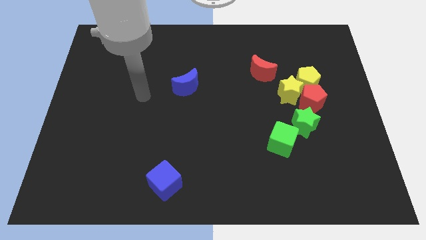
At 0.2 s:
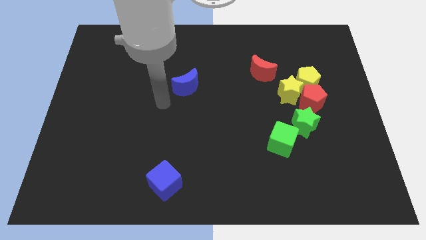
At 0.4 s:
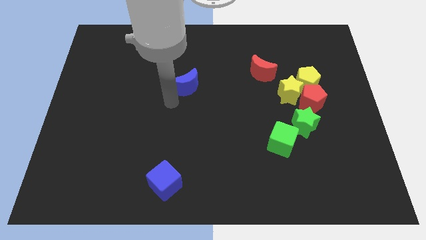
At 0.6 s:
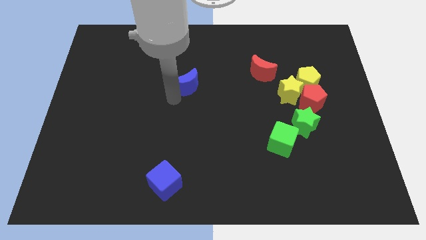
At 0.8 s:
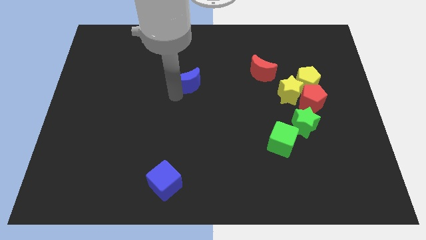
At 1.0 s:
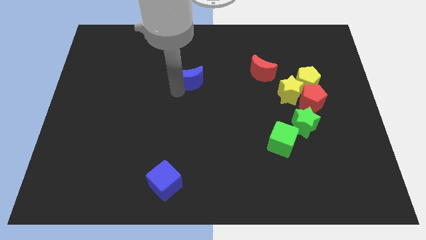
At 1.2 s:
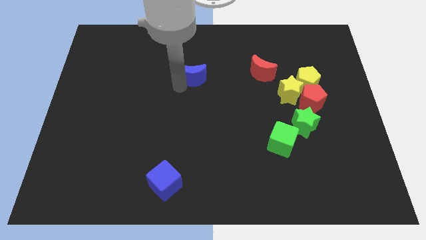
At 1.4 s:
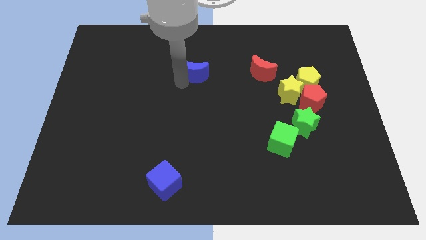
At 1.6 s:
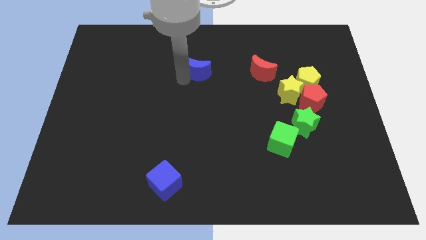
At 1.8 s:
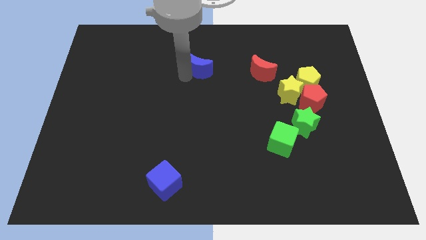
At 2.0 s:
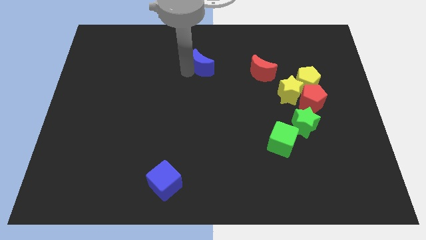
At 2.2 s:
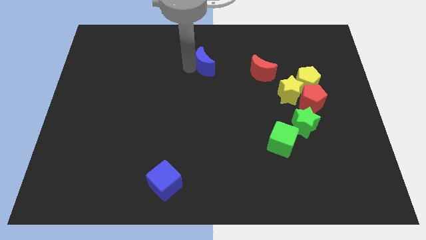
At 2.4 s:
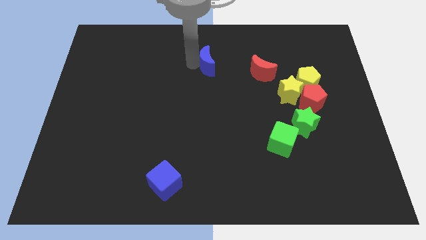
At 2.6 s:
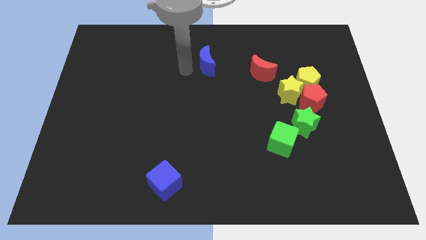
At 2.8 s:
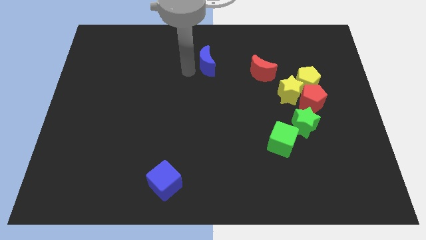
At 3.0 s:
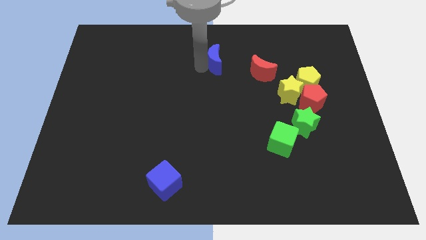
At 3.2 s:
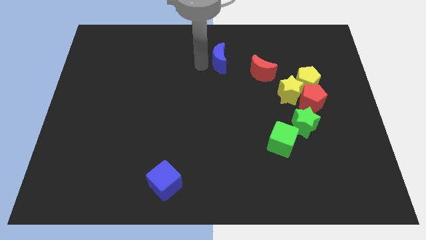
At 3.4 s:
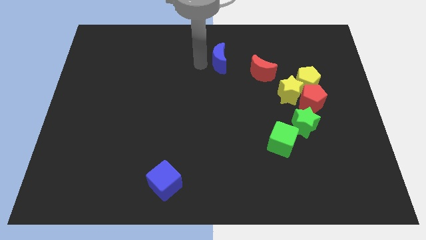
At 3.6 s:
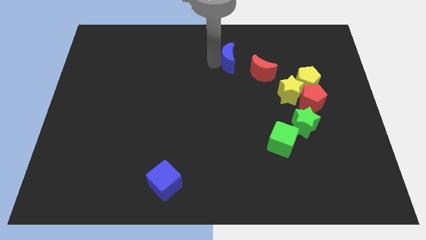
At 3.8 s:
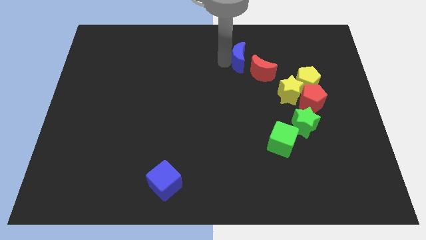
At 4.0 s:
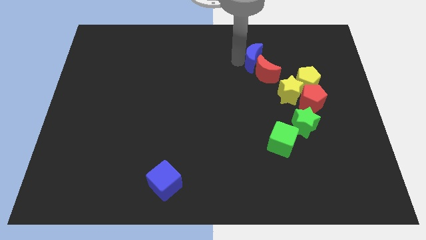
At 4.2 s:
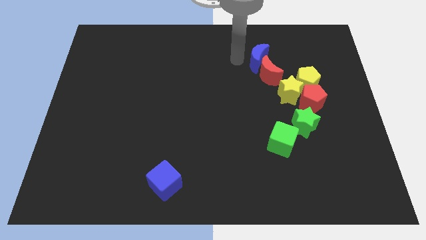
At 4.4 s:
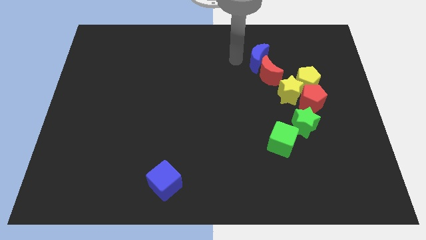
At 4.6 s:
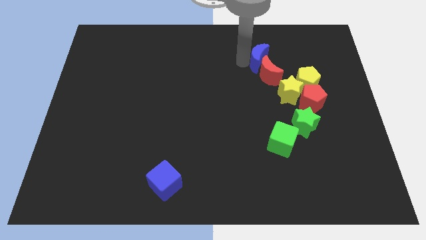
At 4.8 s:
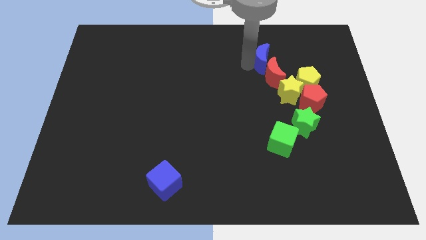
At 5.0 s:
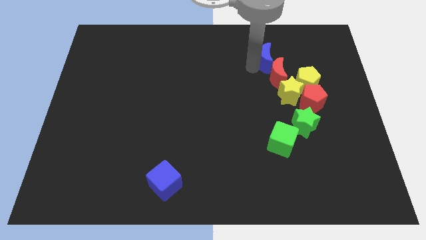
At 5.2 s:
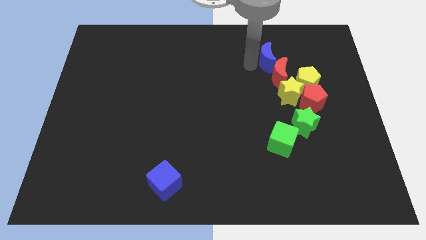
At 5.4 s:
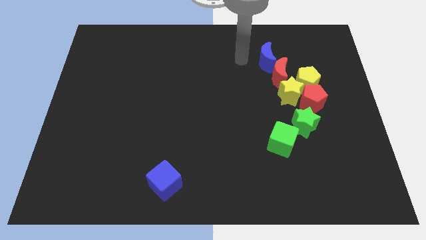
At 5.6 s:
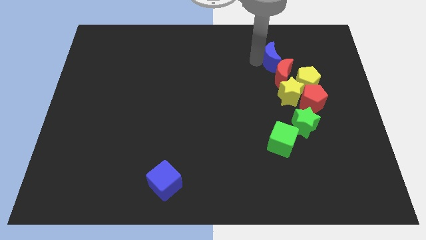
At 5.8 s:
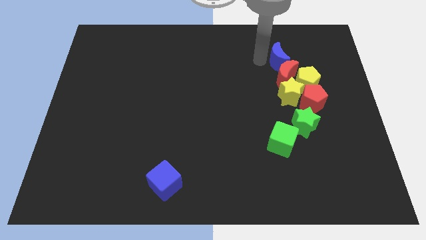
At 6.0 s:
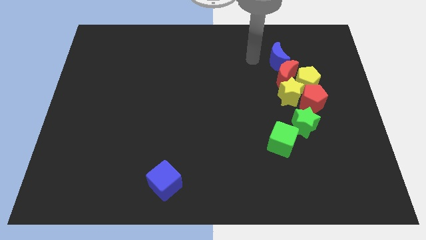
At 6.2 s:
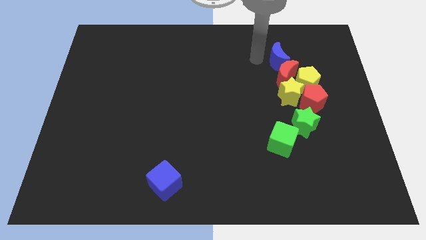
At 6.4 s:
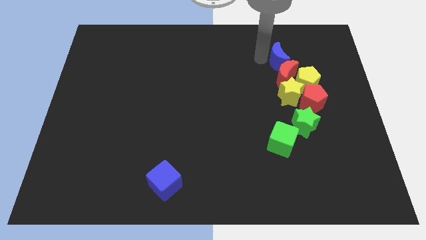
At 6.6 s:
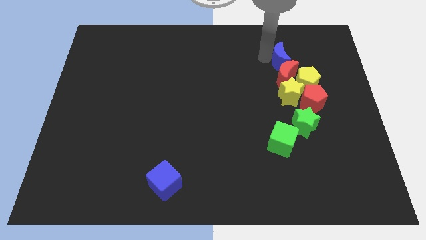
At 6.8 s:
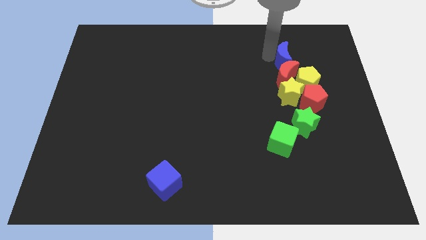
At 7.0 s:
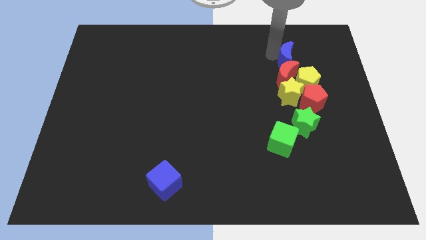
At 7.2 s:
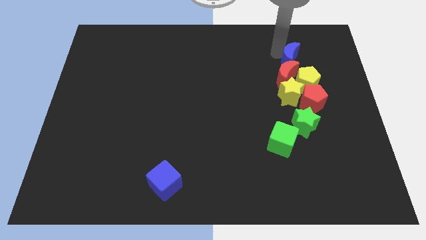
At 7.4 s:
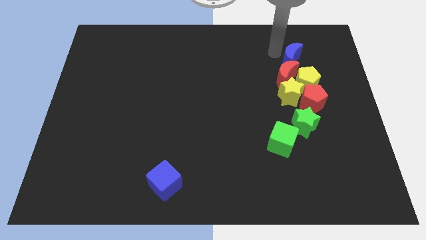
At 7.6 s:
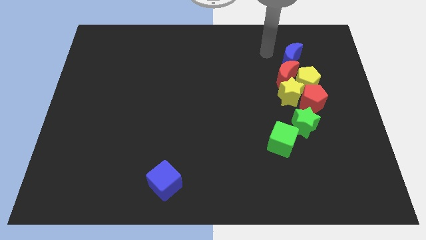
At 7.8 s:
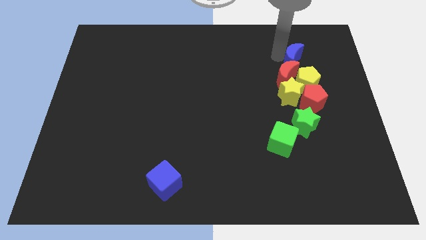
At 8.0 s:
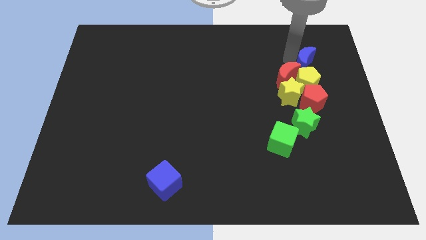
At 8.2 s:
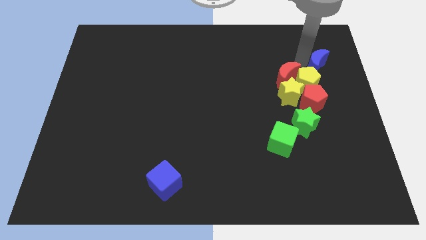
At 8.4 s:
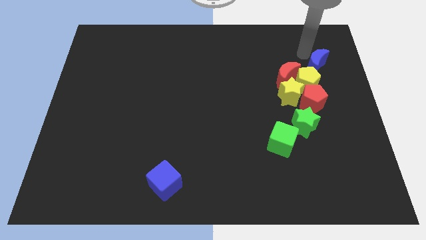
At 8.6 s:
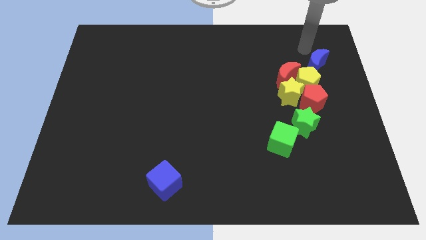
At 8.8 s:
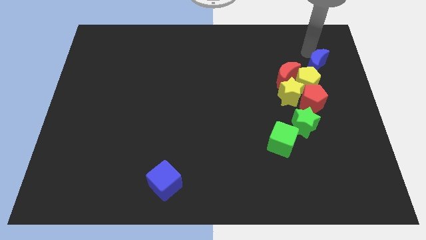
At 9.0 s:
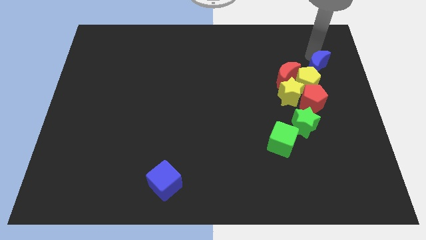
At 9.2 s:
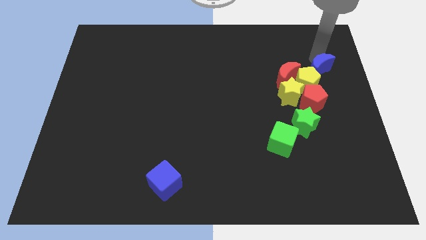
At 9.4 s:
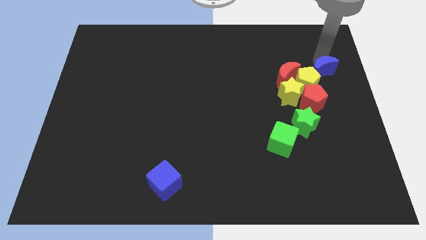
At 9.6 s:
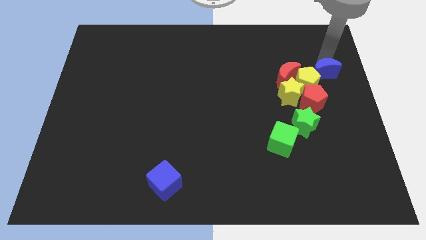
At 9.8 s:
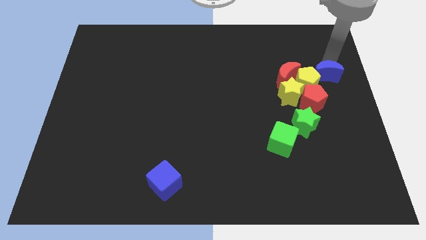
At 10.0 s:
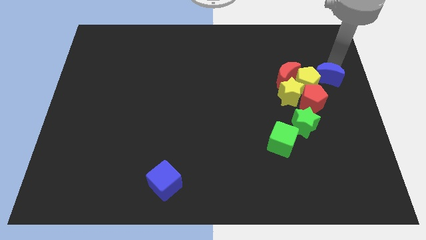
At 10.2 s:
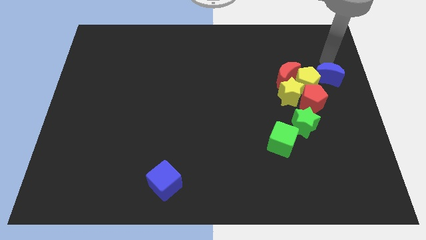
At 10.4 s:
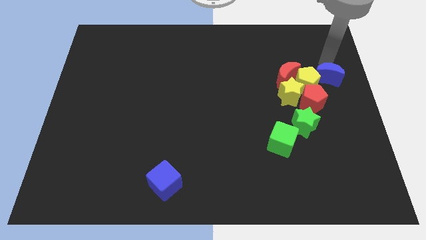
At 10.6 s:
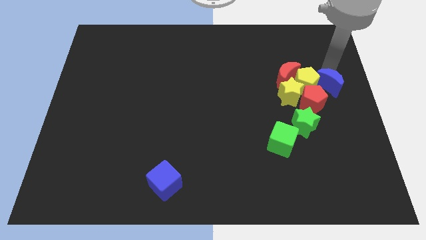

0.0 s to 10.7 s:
slide the blue moon to the bottom right of the yellow pentagon
